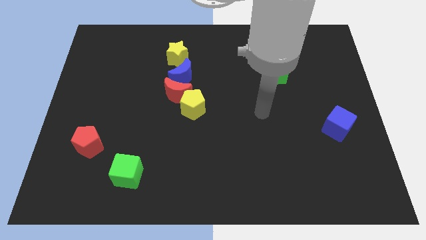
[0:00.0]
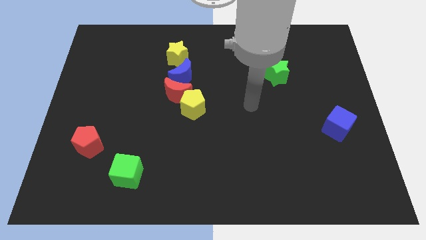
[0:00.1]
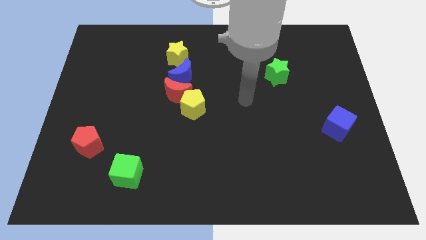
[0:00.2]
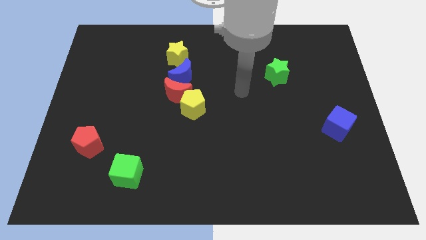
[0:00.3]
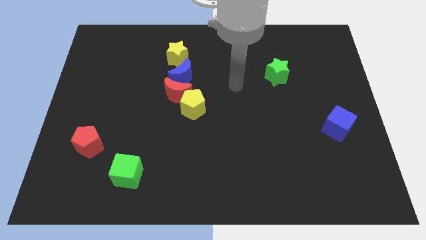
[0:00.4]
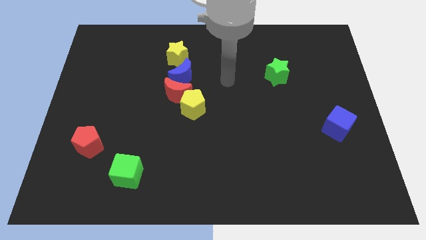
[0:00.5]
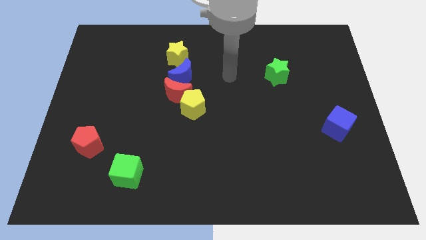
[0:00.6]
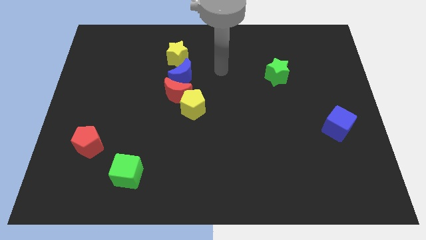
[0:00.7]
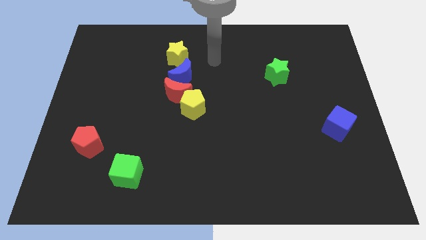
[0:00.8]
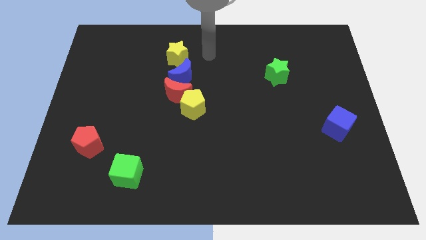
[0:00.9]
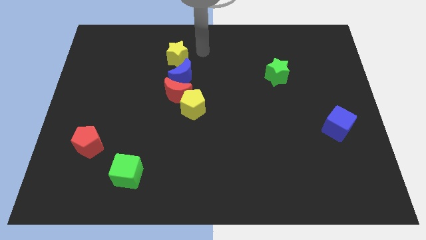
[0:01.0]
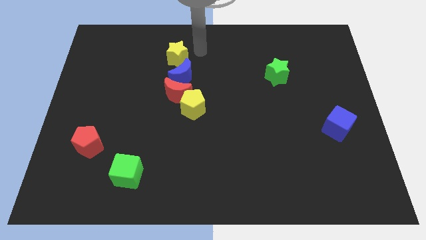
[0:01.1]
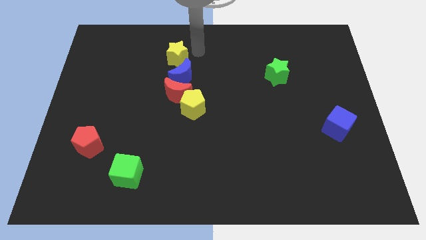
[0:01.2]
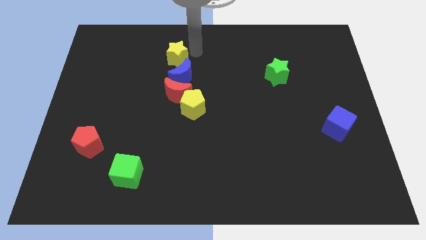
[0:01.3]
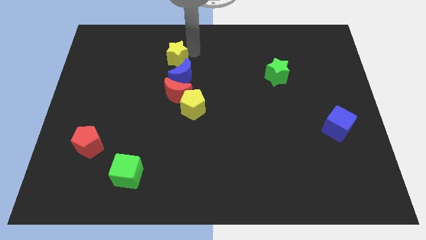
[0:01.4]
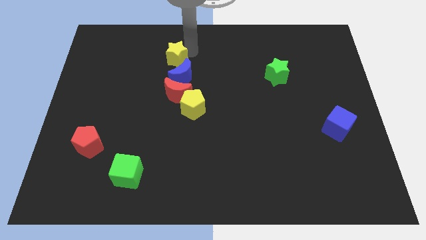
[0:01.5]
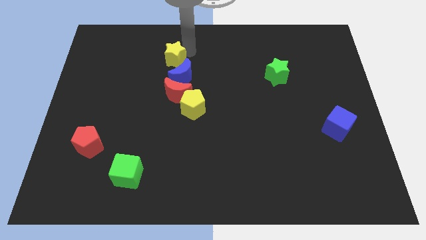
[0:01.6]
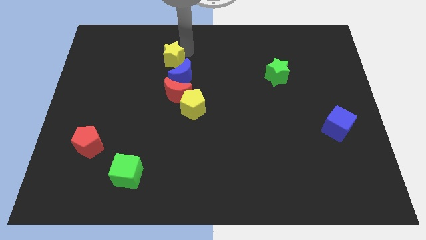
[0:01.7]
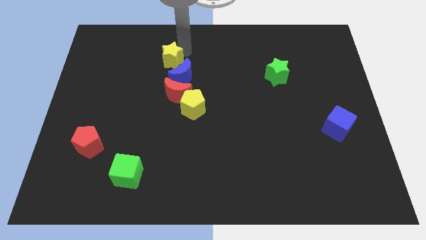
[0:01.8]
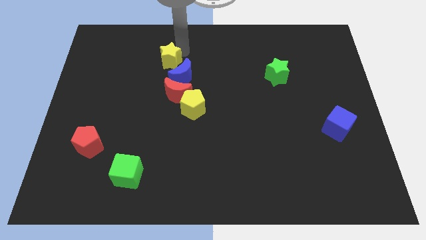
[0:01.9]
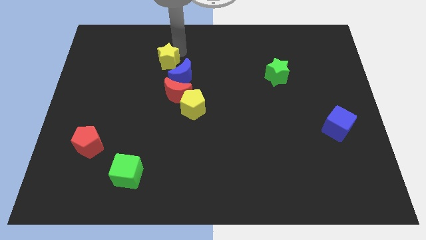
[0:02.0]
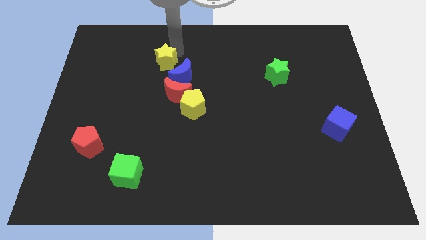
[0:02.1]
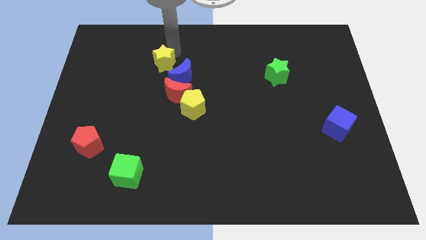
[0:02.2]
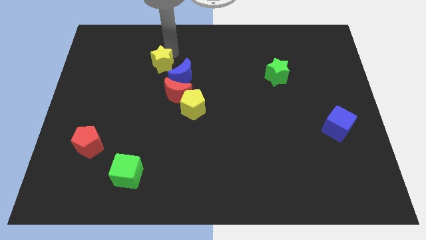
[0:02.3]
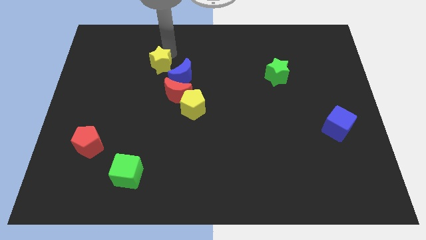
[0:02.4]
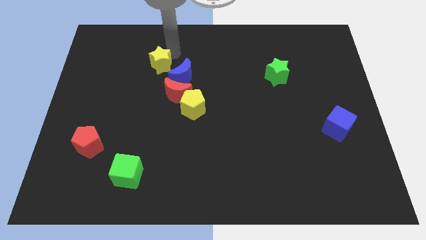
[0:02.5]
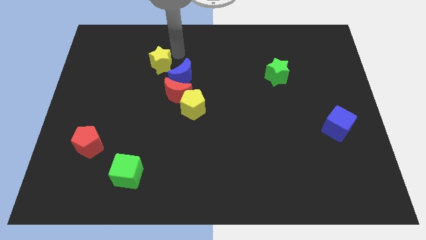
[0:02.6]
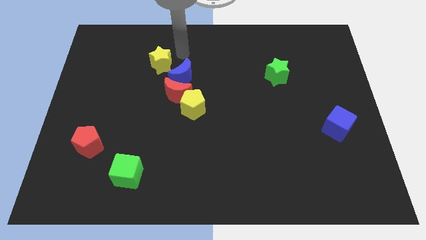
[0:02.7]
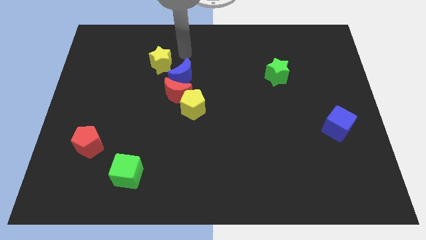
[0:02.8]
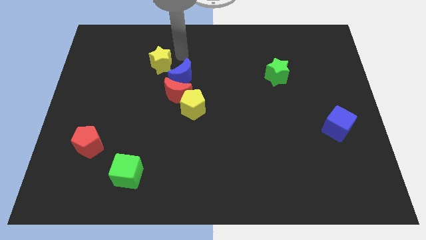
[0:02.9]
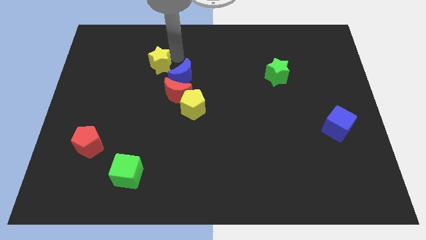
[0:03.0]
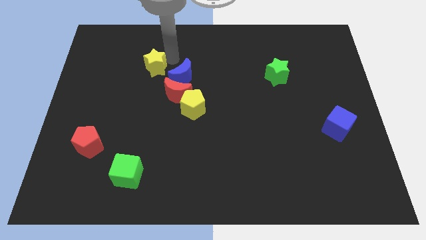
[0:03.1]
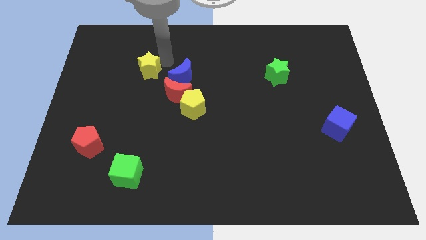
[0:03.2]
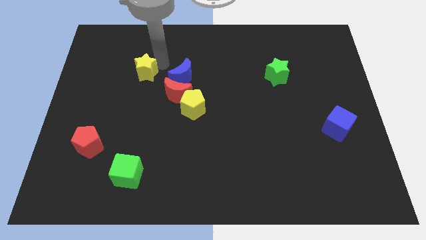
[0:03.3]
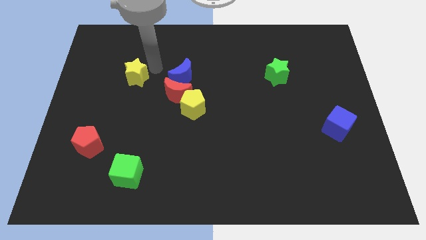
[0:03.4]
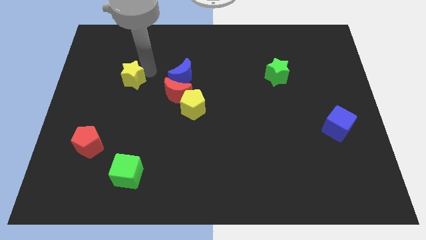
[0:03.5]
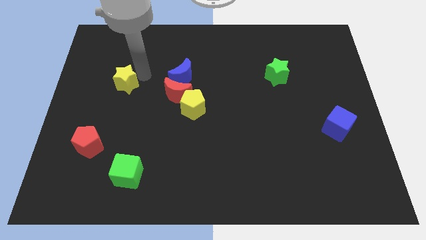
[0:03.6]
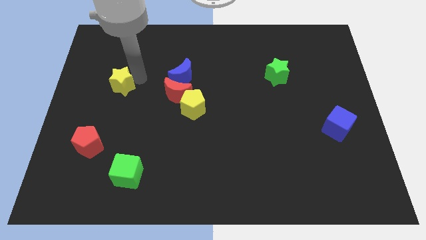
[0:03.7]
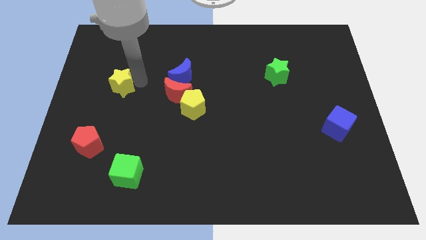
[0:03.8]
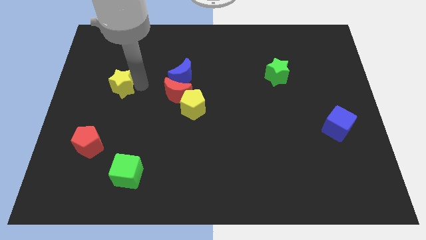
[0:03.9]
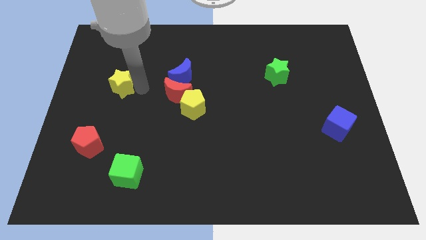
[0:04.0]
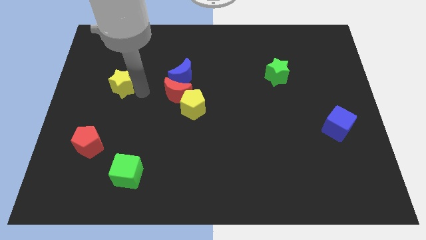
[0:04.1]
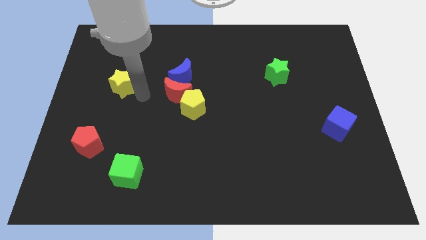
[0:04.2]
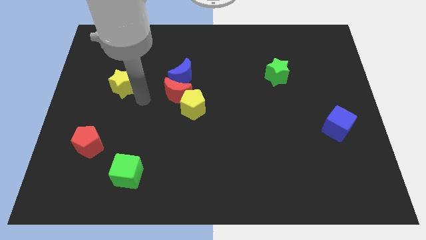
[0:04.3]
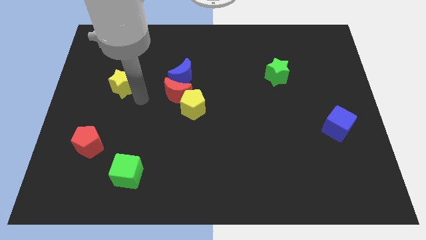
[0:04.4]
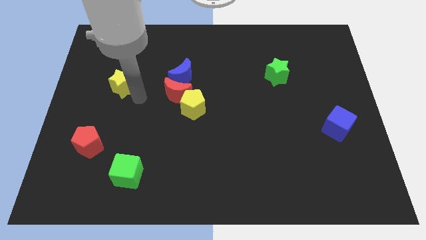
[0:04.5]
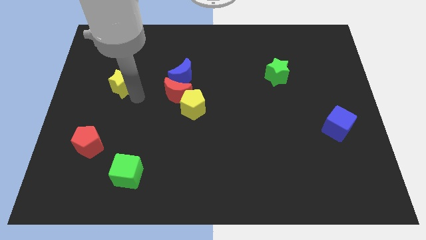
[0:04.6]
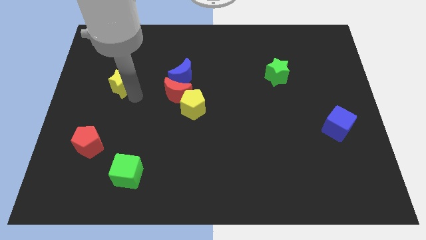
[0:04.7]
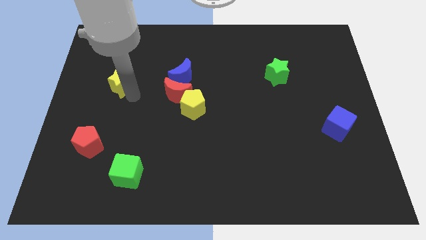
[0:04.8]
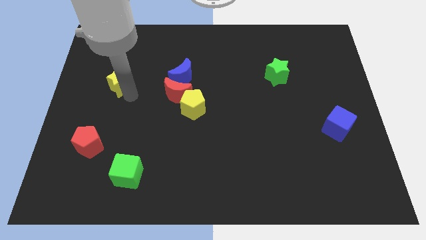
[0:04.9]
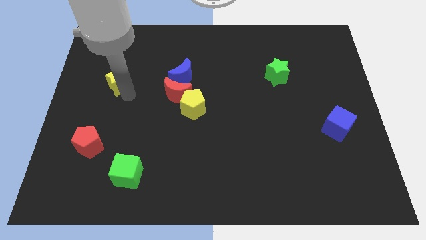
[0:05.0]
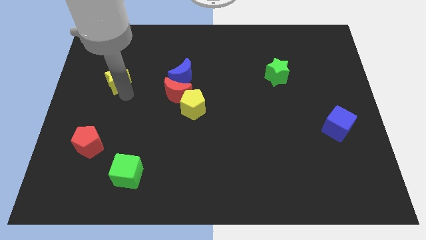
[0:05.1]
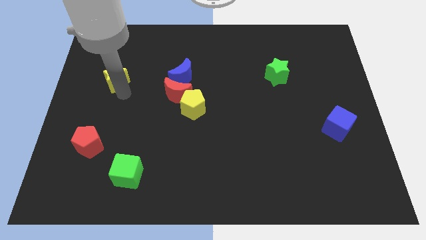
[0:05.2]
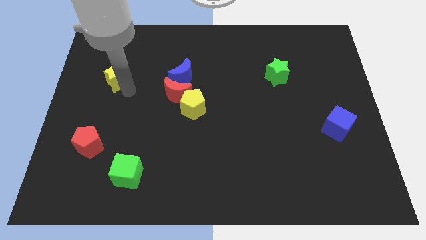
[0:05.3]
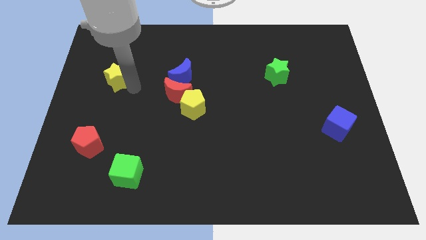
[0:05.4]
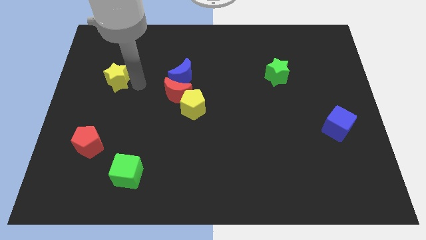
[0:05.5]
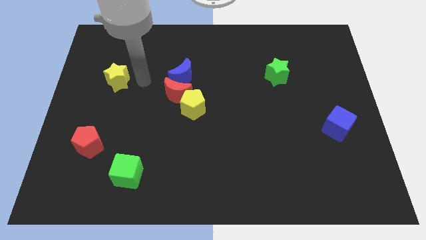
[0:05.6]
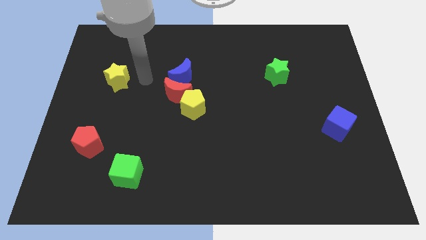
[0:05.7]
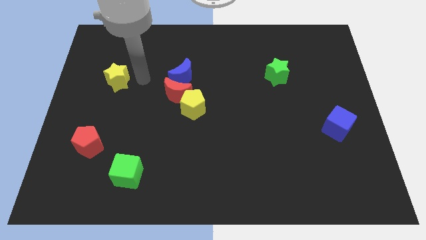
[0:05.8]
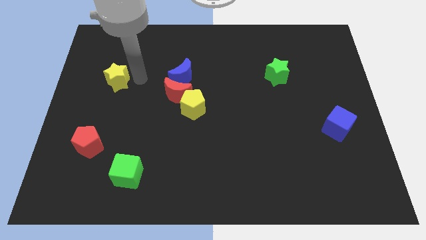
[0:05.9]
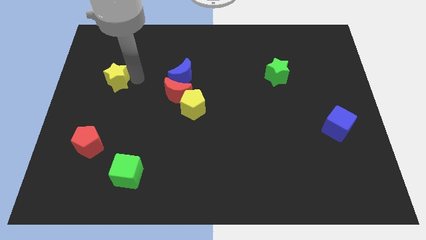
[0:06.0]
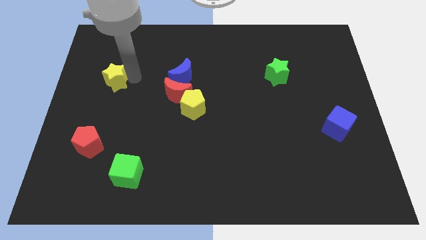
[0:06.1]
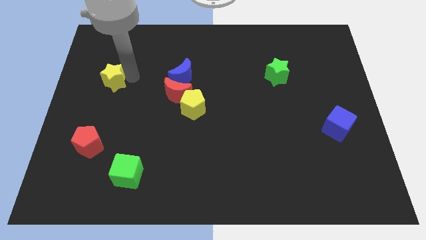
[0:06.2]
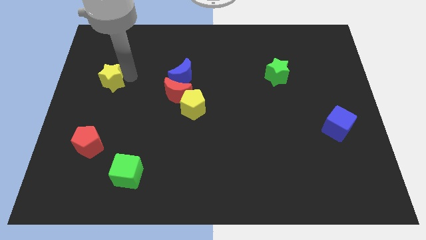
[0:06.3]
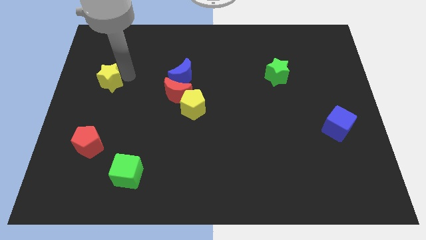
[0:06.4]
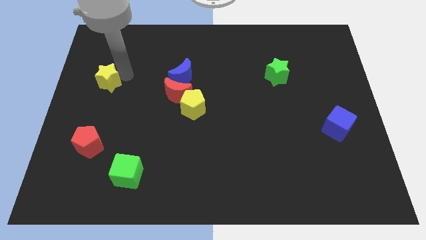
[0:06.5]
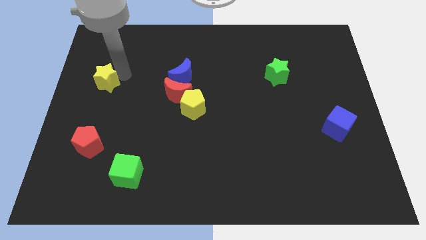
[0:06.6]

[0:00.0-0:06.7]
push the yellow star to the center left

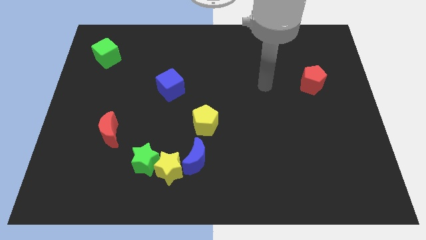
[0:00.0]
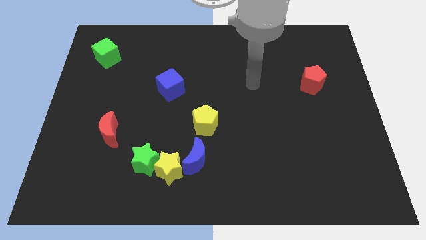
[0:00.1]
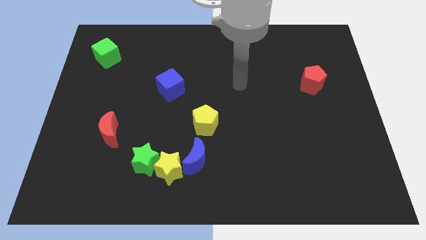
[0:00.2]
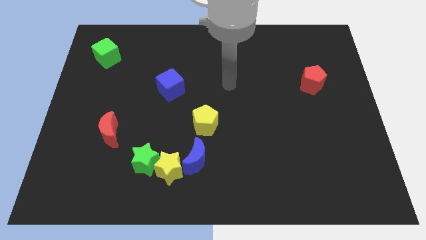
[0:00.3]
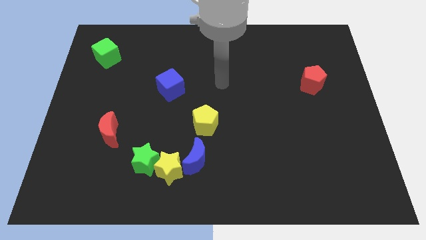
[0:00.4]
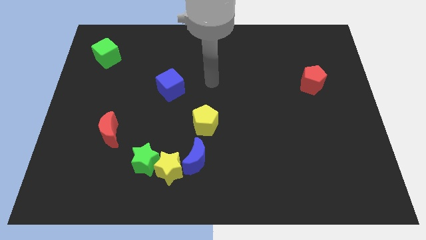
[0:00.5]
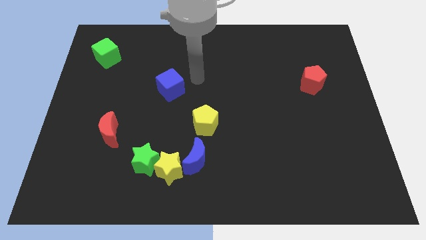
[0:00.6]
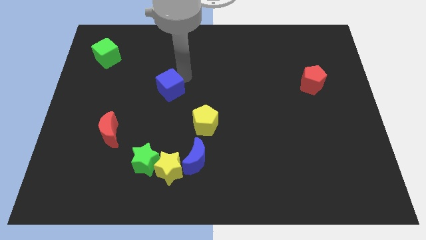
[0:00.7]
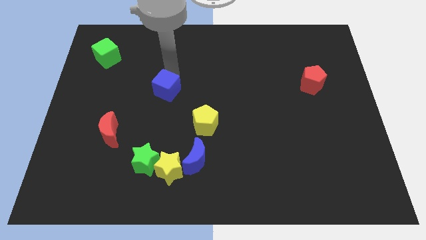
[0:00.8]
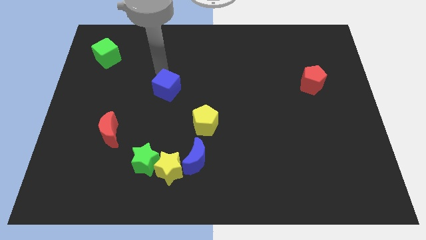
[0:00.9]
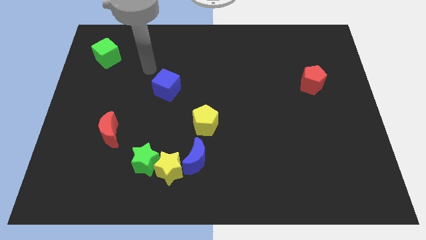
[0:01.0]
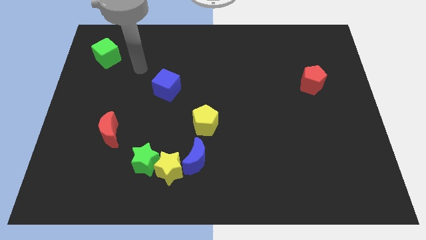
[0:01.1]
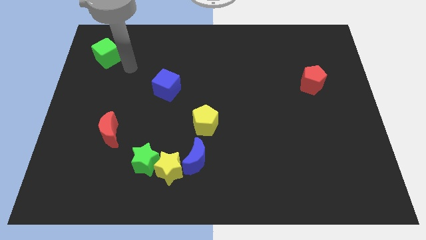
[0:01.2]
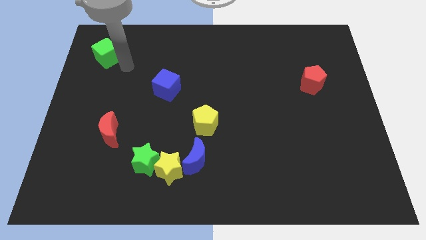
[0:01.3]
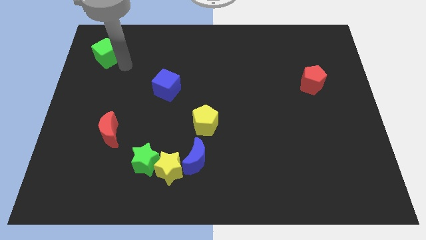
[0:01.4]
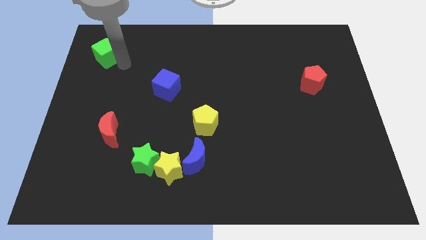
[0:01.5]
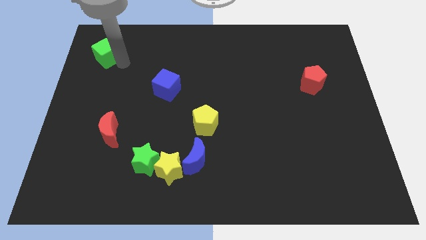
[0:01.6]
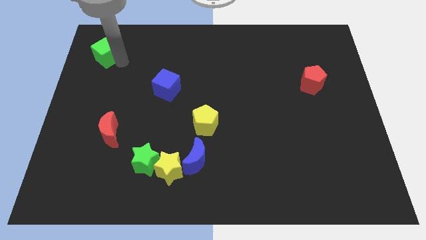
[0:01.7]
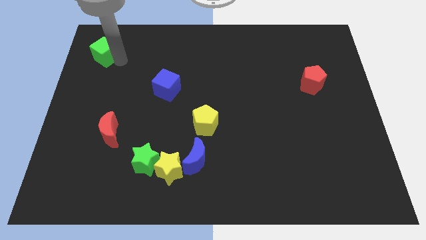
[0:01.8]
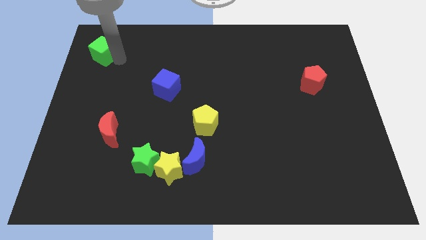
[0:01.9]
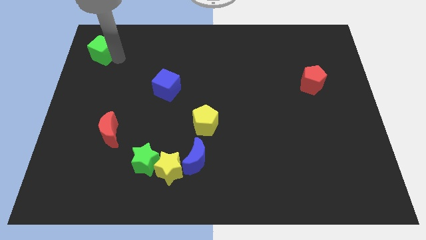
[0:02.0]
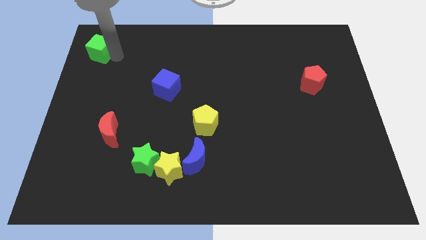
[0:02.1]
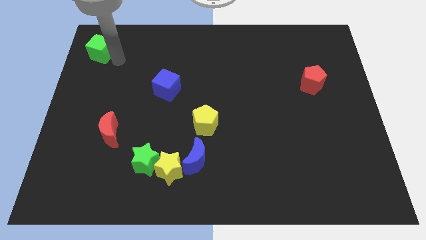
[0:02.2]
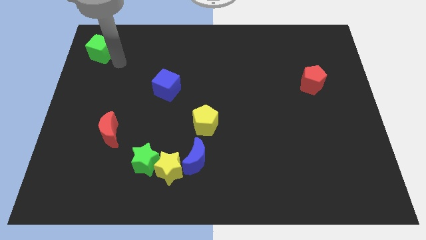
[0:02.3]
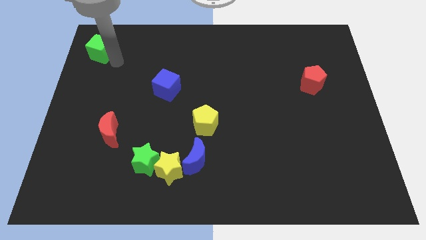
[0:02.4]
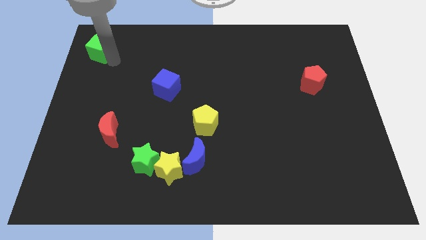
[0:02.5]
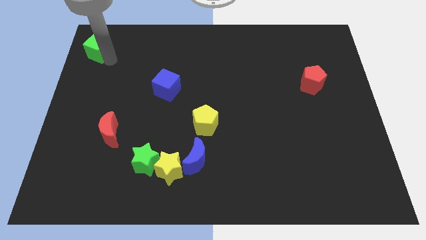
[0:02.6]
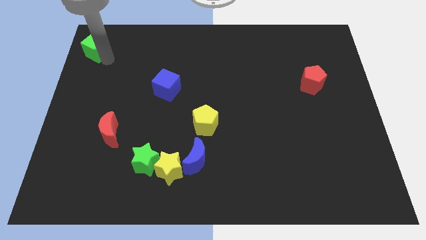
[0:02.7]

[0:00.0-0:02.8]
slide the green cube to the upper left corner
